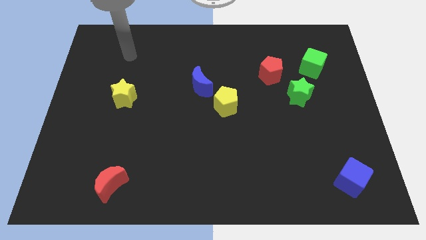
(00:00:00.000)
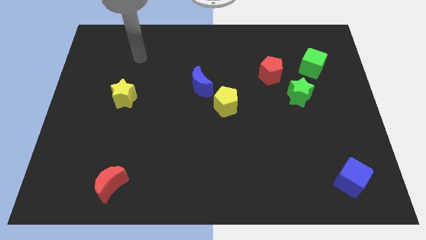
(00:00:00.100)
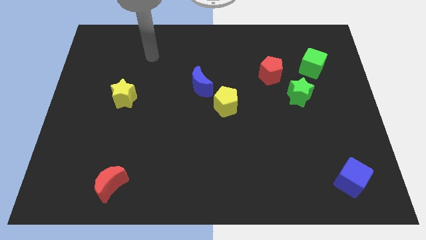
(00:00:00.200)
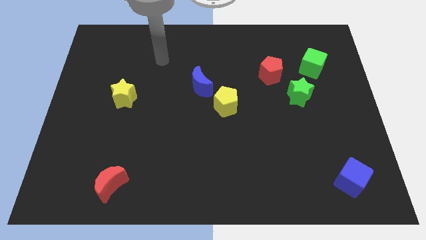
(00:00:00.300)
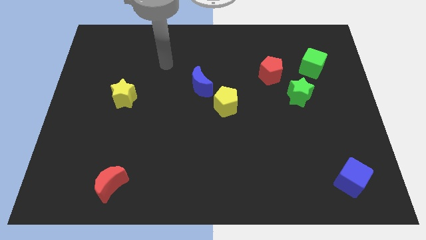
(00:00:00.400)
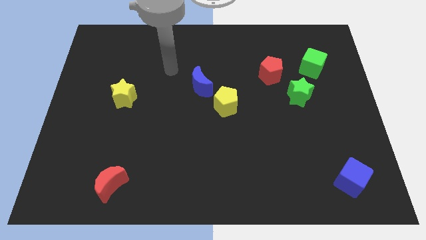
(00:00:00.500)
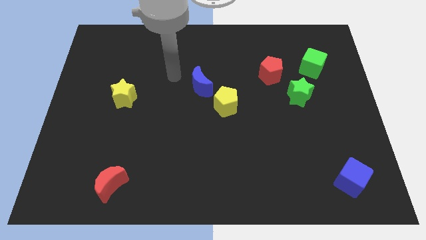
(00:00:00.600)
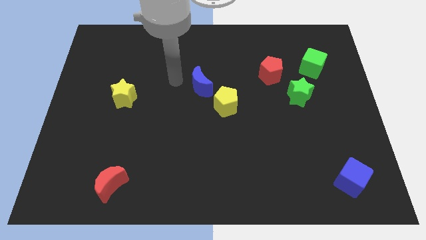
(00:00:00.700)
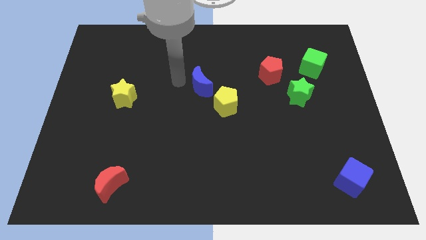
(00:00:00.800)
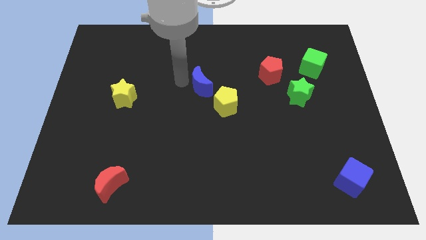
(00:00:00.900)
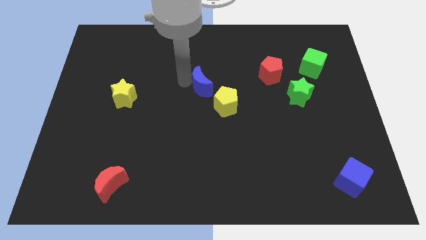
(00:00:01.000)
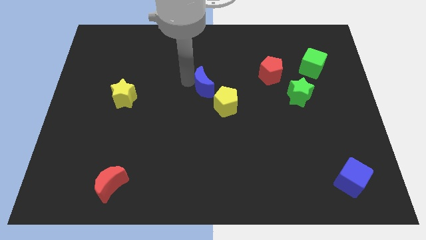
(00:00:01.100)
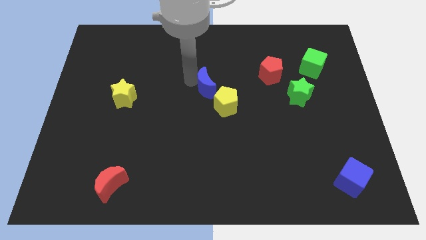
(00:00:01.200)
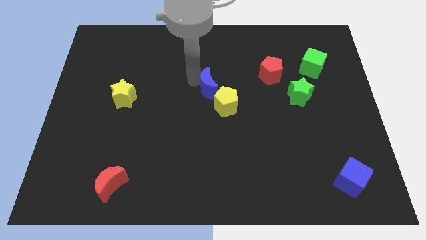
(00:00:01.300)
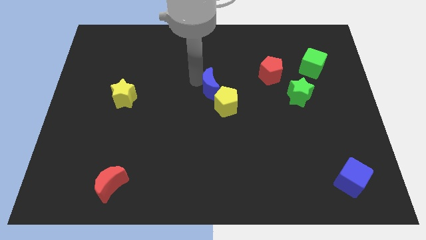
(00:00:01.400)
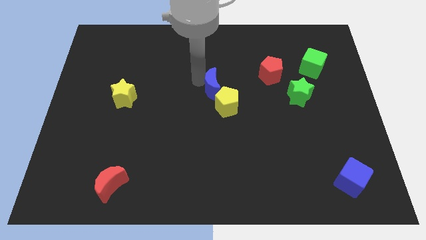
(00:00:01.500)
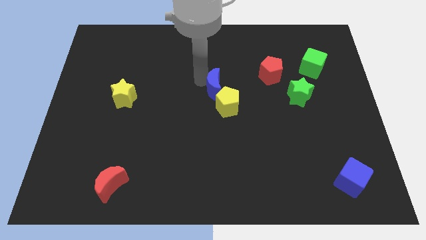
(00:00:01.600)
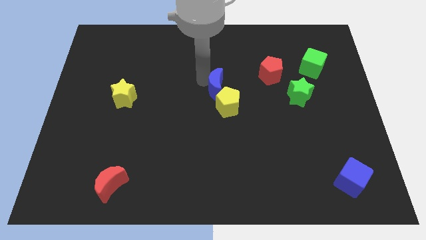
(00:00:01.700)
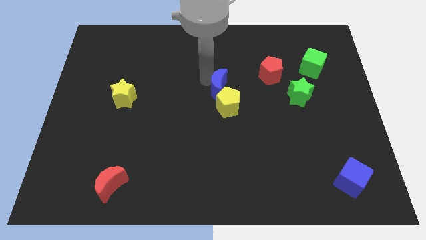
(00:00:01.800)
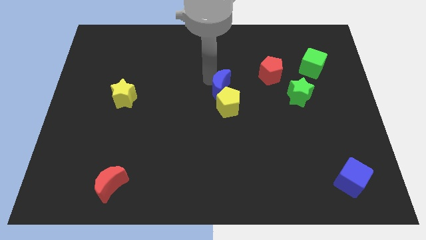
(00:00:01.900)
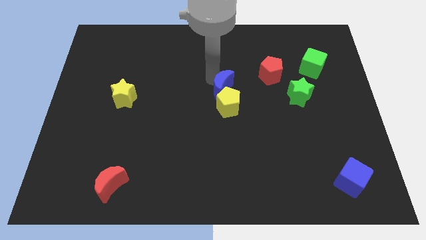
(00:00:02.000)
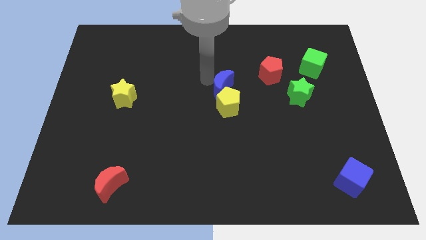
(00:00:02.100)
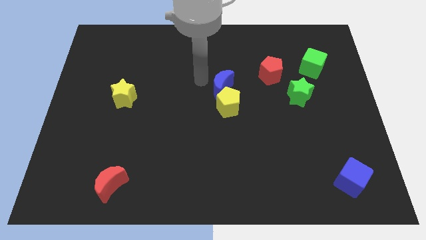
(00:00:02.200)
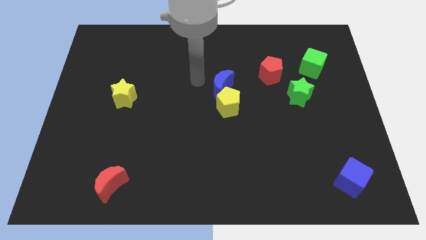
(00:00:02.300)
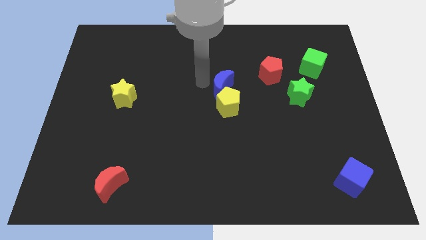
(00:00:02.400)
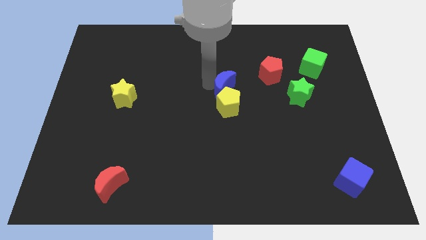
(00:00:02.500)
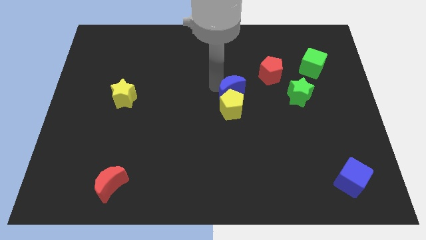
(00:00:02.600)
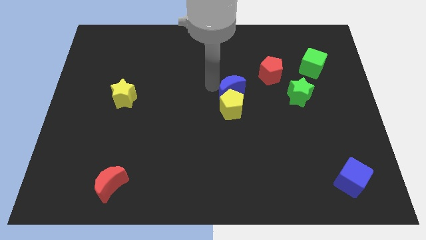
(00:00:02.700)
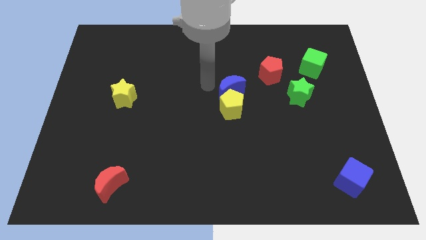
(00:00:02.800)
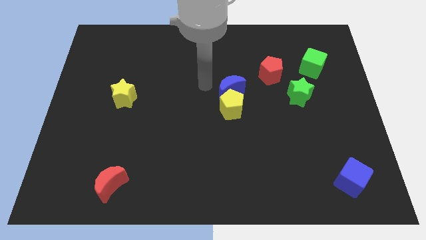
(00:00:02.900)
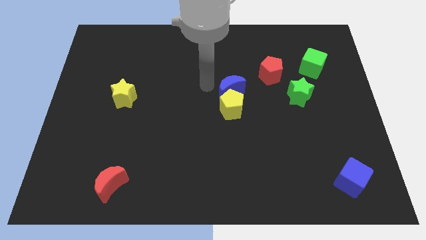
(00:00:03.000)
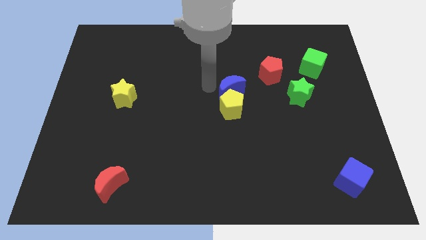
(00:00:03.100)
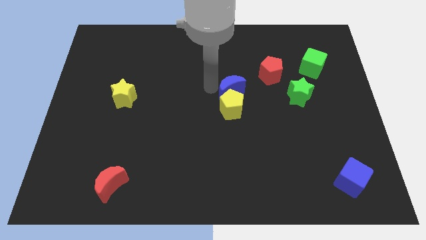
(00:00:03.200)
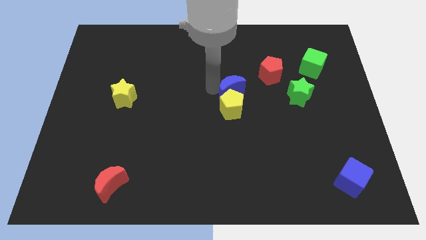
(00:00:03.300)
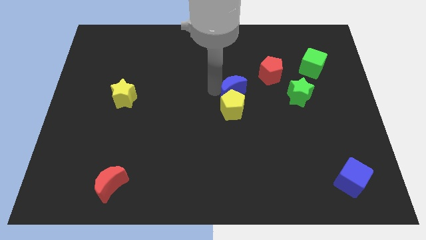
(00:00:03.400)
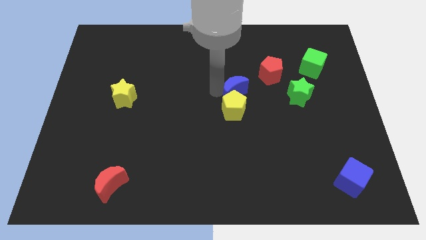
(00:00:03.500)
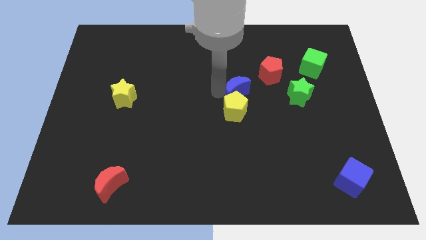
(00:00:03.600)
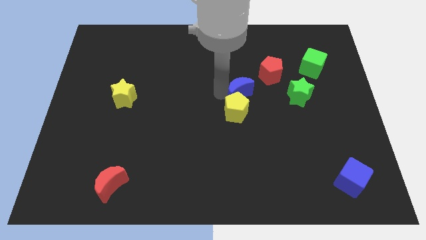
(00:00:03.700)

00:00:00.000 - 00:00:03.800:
move the blue moon diagonally downwards and right slightly

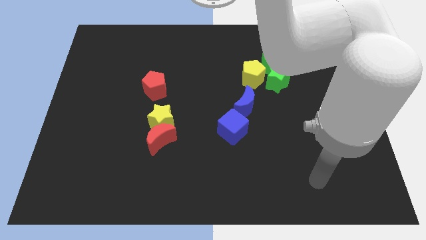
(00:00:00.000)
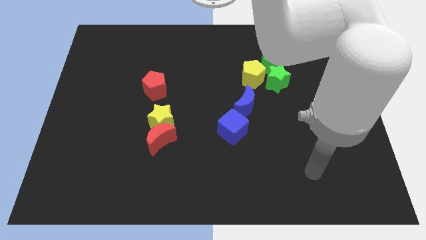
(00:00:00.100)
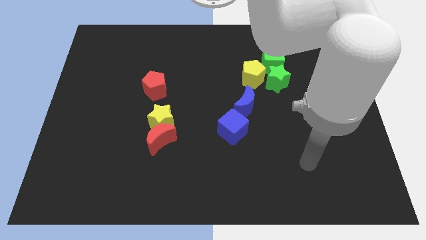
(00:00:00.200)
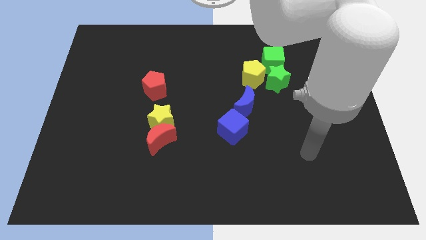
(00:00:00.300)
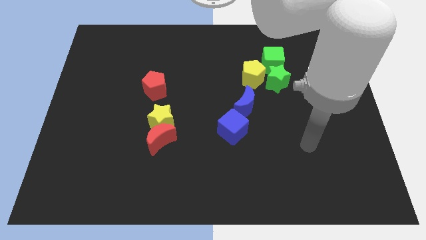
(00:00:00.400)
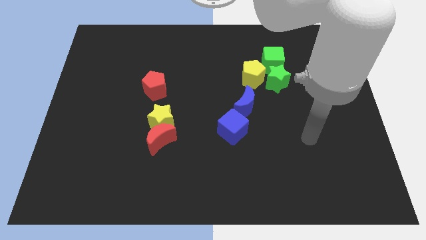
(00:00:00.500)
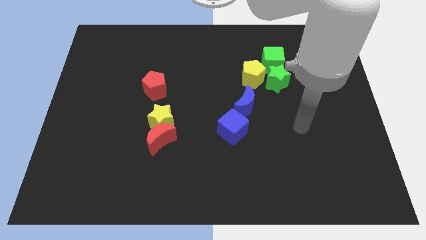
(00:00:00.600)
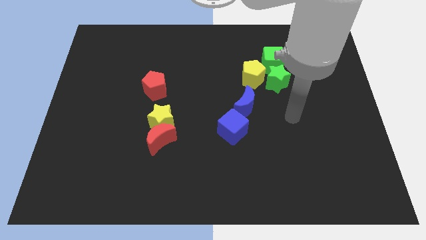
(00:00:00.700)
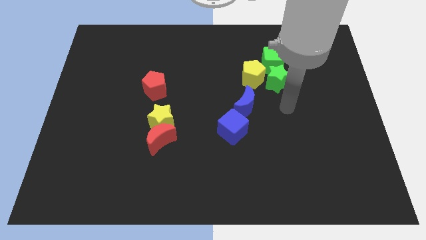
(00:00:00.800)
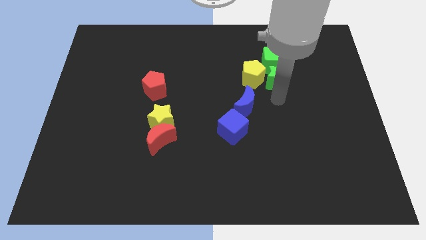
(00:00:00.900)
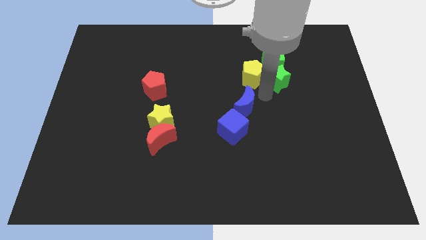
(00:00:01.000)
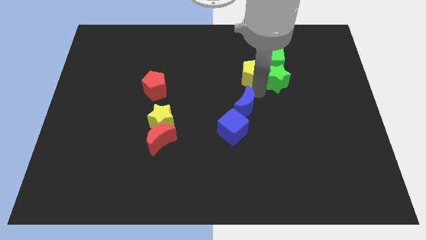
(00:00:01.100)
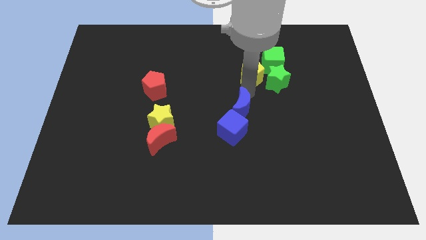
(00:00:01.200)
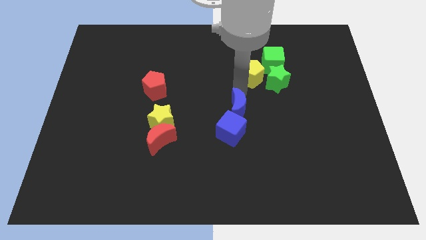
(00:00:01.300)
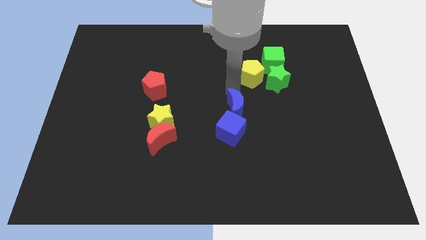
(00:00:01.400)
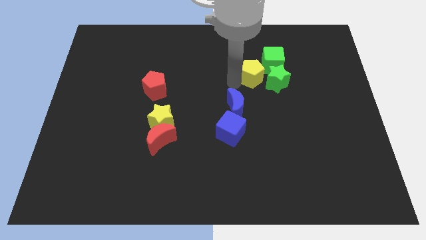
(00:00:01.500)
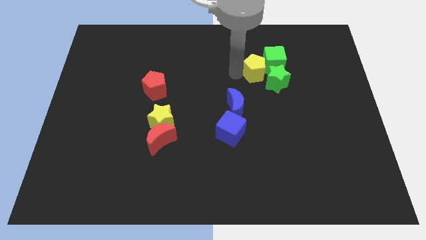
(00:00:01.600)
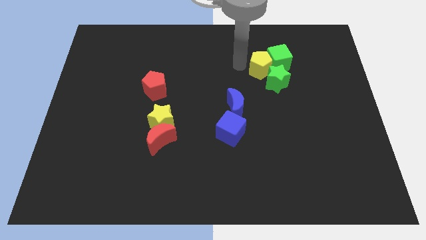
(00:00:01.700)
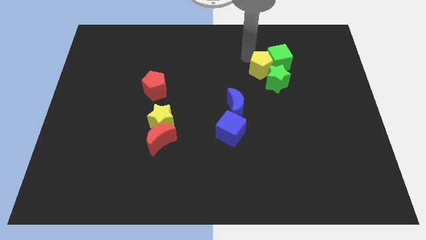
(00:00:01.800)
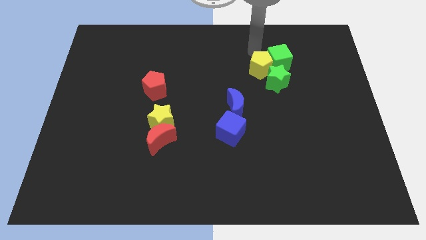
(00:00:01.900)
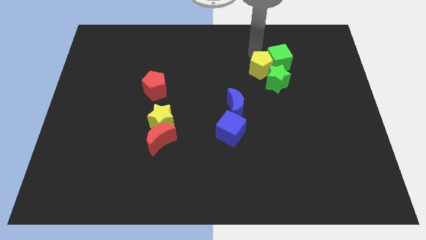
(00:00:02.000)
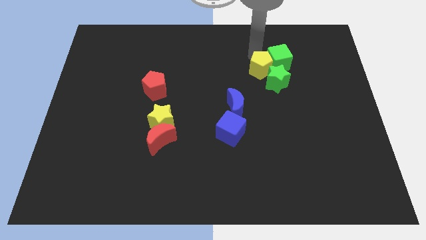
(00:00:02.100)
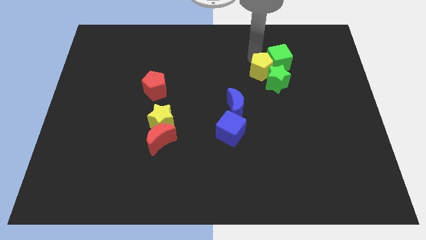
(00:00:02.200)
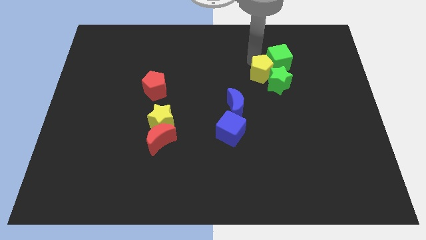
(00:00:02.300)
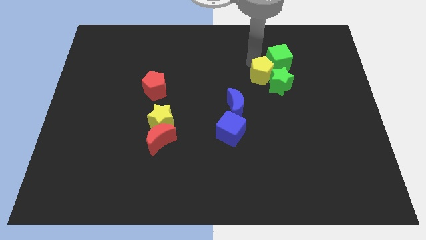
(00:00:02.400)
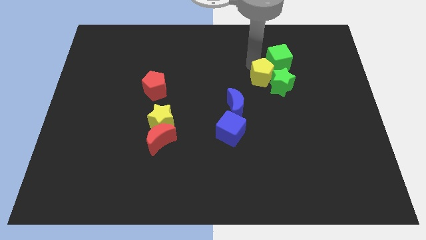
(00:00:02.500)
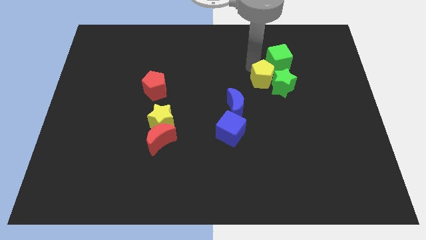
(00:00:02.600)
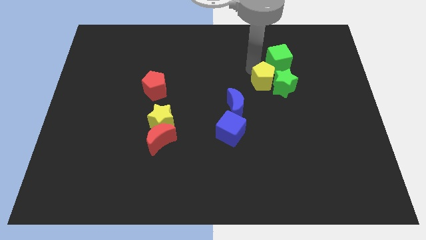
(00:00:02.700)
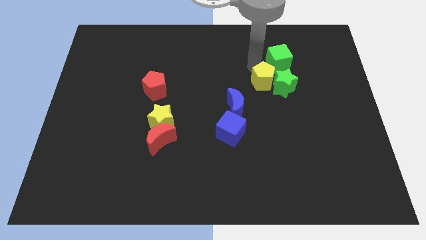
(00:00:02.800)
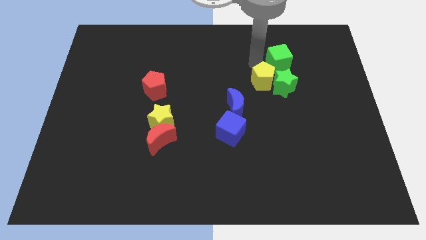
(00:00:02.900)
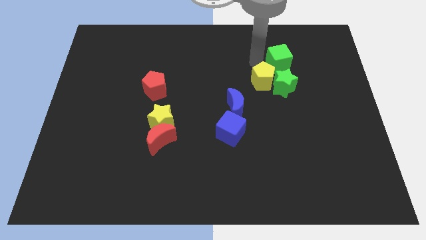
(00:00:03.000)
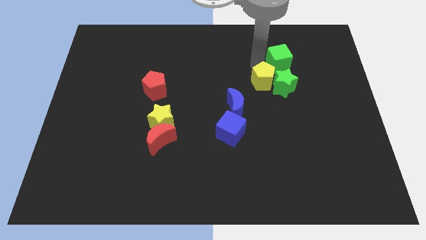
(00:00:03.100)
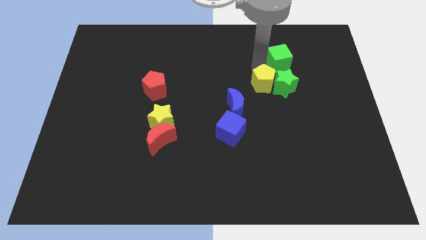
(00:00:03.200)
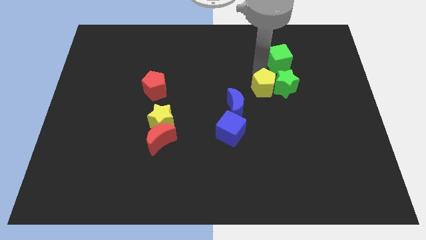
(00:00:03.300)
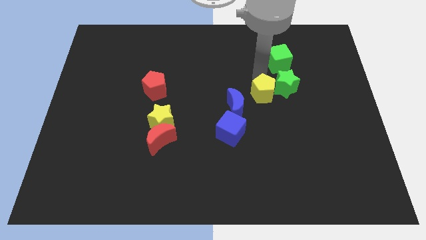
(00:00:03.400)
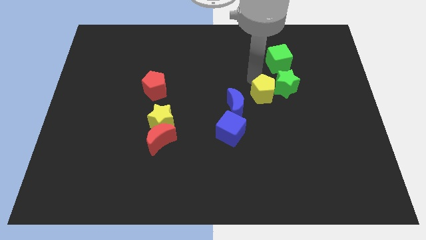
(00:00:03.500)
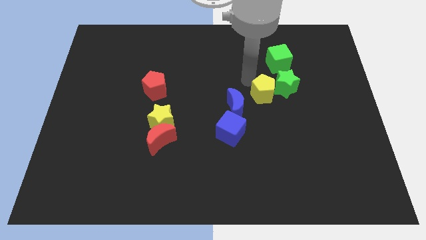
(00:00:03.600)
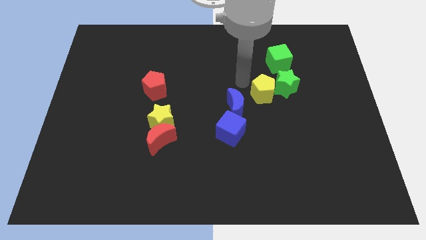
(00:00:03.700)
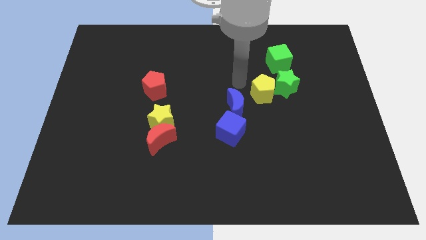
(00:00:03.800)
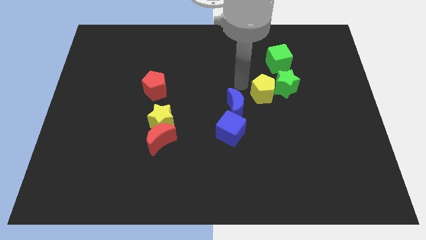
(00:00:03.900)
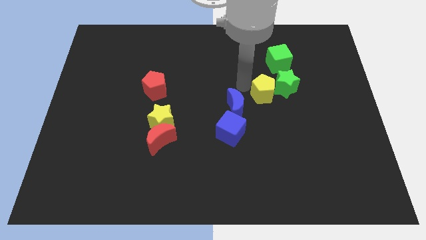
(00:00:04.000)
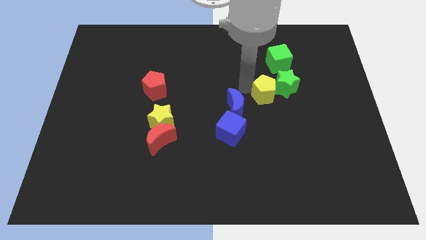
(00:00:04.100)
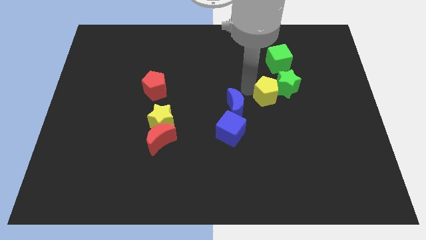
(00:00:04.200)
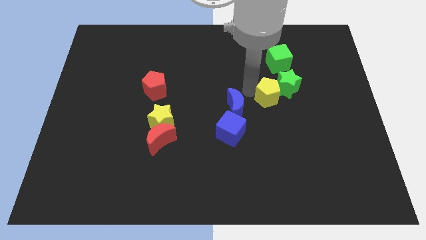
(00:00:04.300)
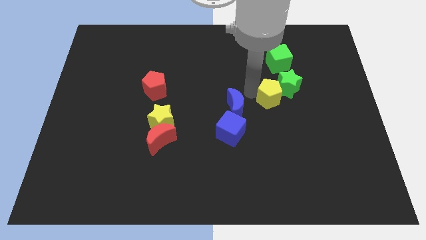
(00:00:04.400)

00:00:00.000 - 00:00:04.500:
slightly slide the yellow pentagon down and to the right

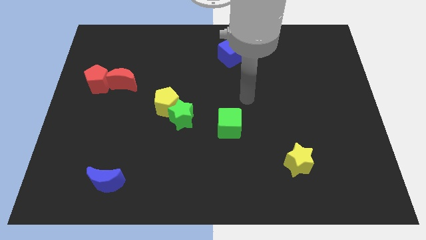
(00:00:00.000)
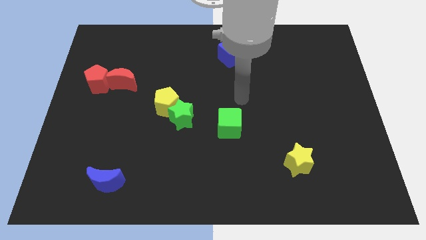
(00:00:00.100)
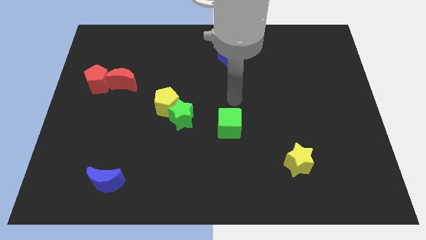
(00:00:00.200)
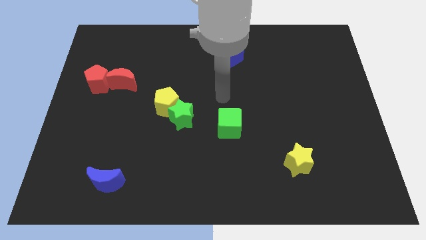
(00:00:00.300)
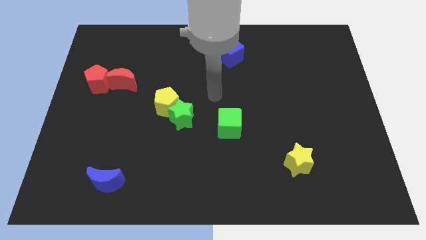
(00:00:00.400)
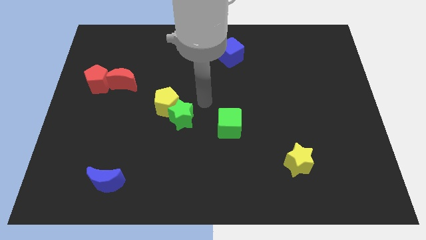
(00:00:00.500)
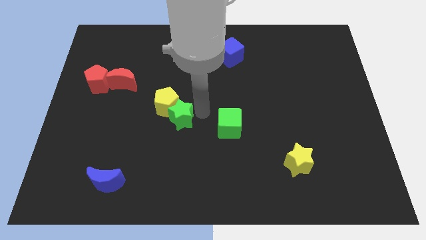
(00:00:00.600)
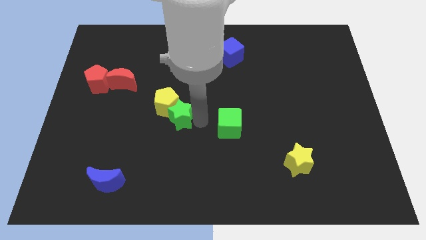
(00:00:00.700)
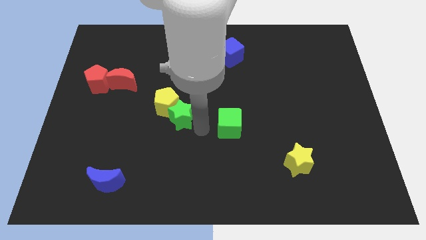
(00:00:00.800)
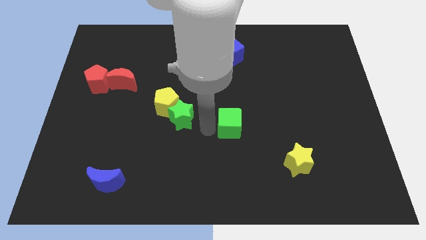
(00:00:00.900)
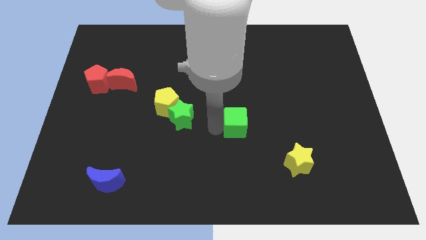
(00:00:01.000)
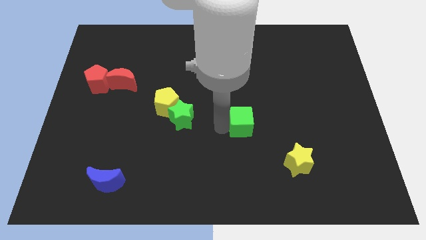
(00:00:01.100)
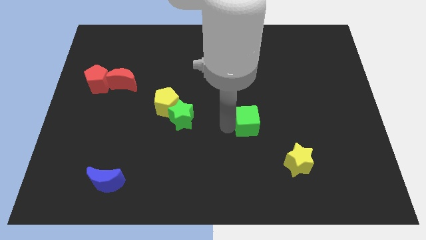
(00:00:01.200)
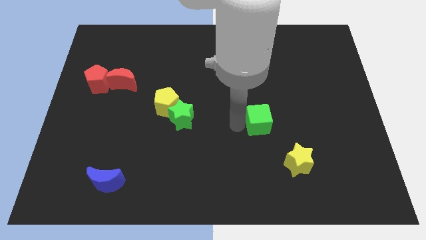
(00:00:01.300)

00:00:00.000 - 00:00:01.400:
push the green cube to the right a little bit
